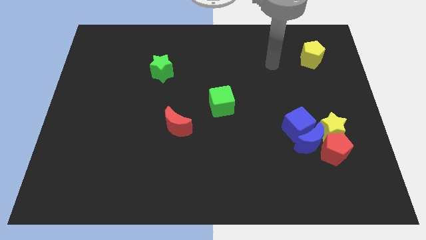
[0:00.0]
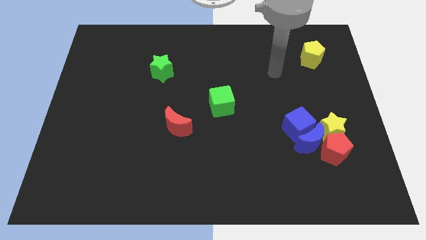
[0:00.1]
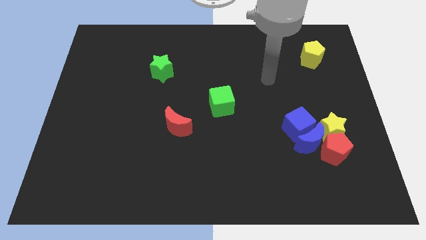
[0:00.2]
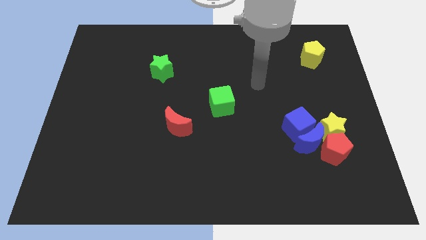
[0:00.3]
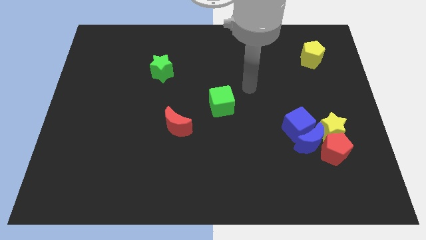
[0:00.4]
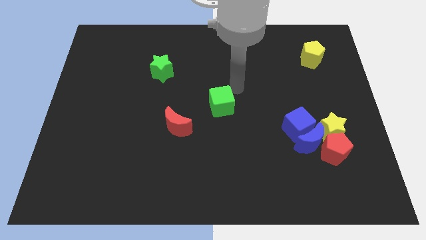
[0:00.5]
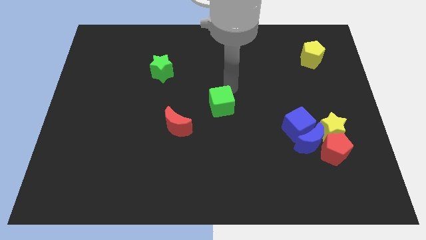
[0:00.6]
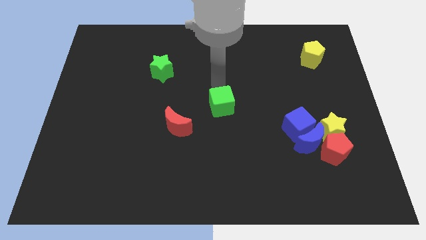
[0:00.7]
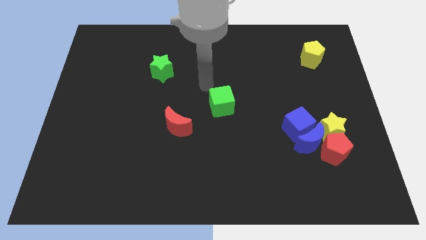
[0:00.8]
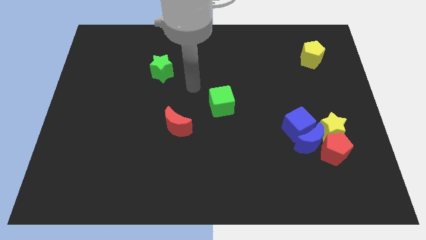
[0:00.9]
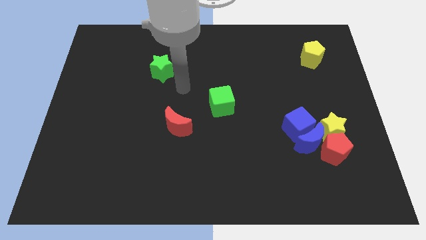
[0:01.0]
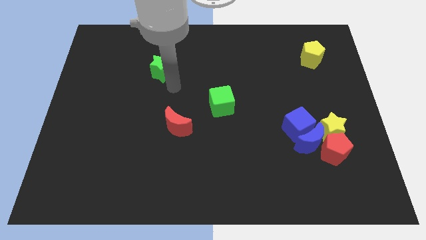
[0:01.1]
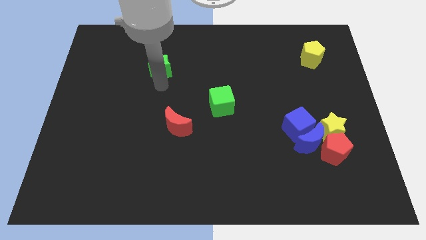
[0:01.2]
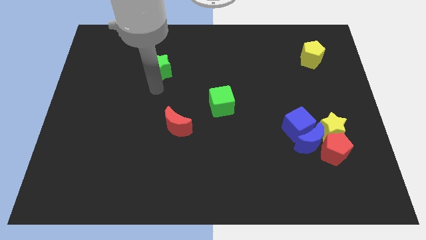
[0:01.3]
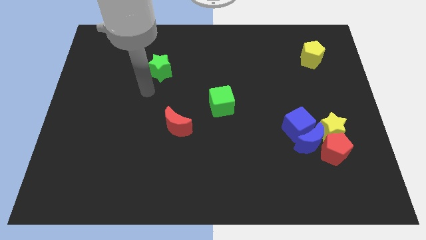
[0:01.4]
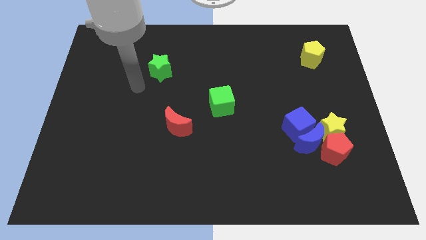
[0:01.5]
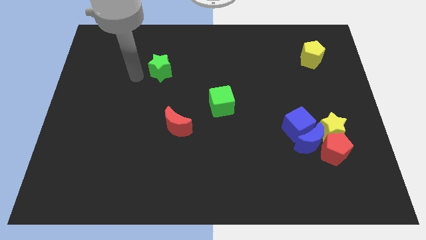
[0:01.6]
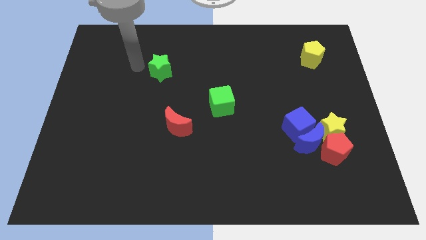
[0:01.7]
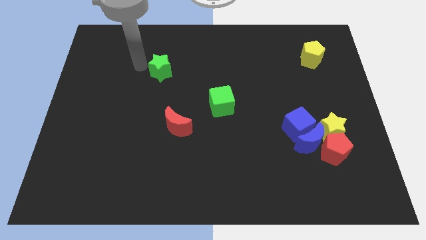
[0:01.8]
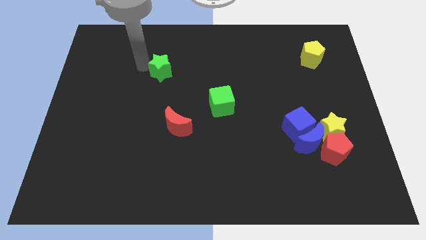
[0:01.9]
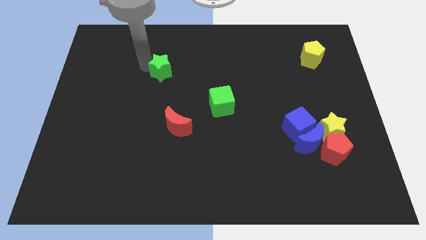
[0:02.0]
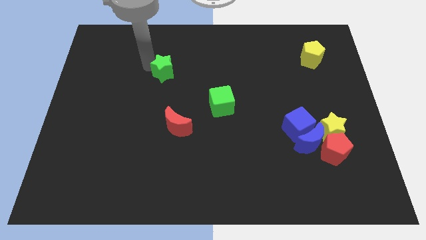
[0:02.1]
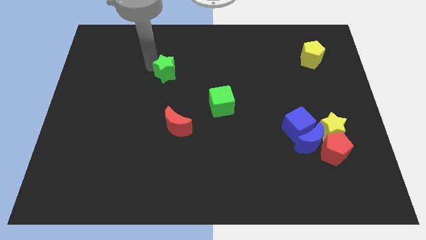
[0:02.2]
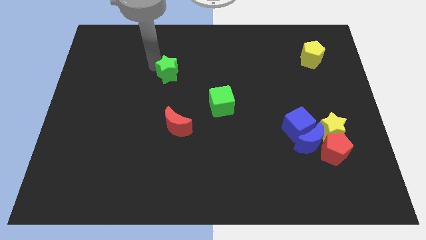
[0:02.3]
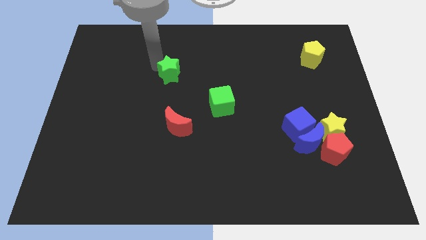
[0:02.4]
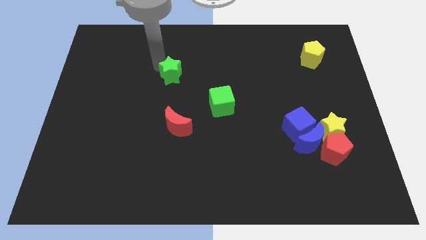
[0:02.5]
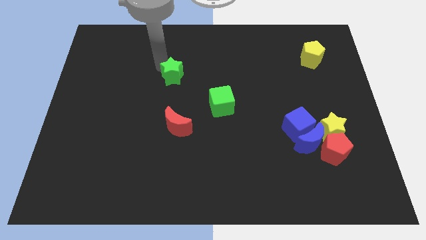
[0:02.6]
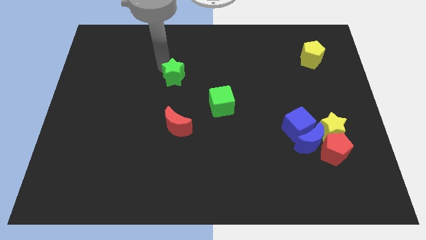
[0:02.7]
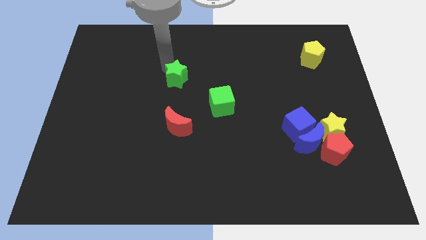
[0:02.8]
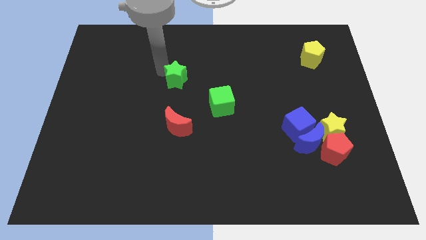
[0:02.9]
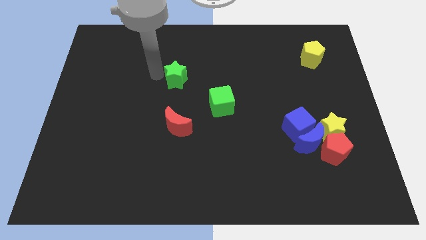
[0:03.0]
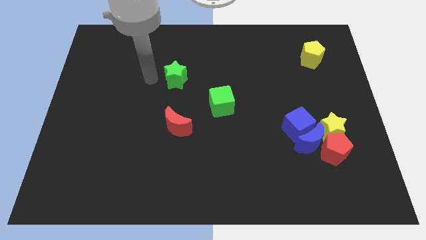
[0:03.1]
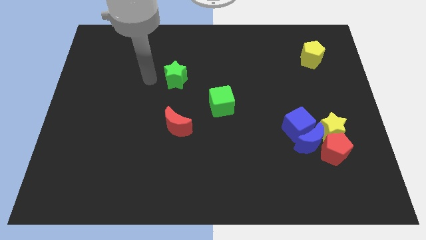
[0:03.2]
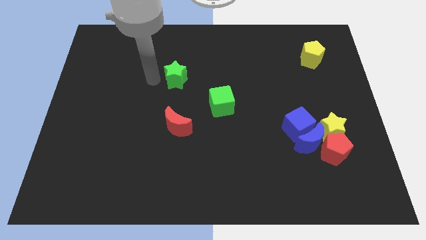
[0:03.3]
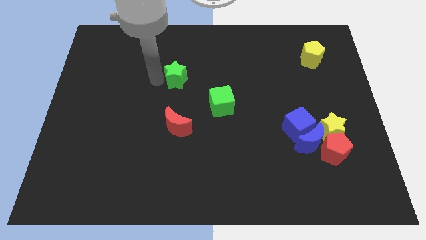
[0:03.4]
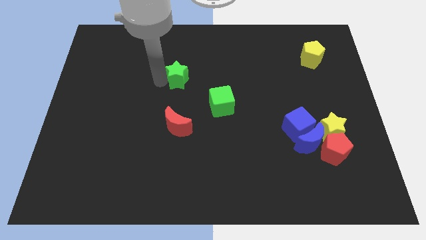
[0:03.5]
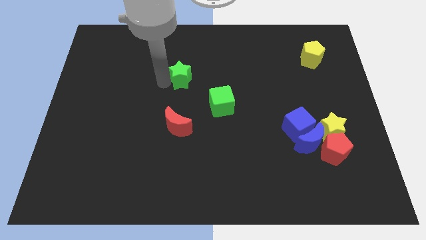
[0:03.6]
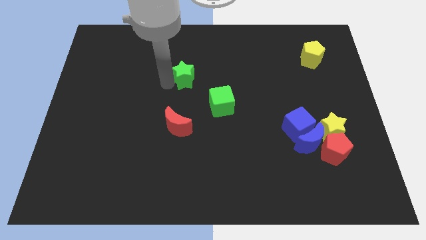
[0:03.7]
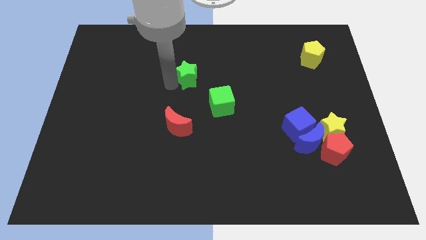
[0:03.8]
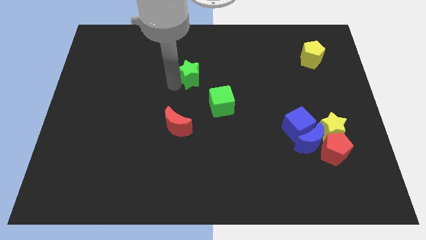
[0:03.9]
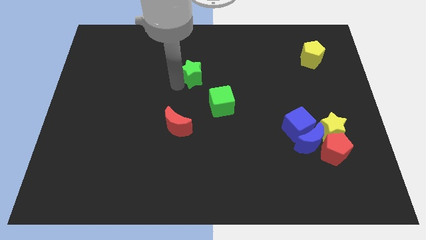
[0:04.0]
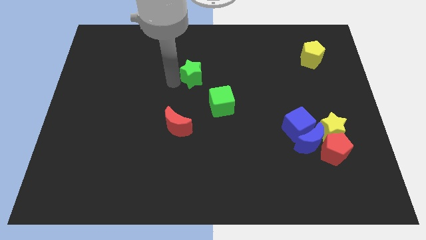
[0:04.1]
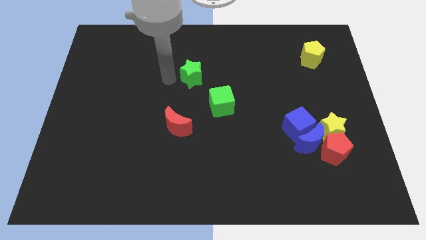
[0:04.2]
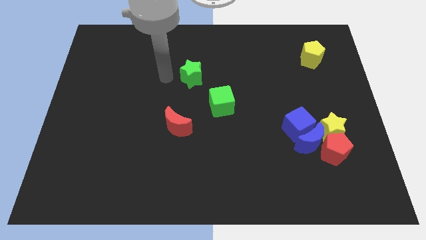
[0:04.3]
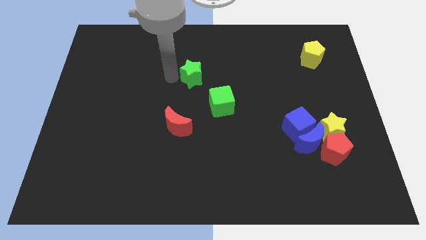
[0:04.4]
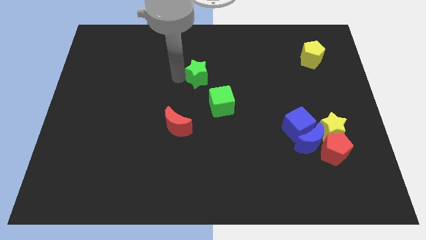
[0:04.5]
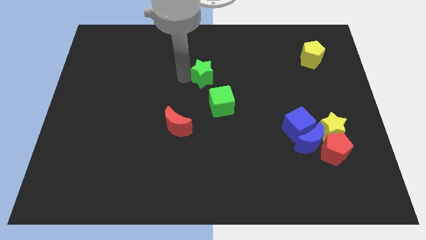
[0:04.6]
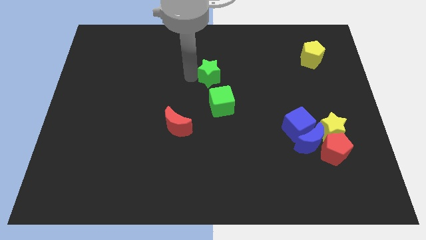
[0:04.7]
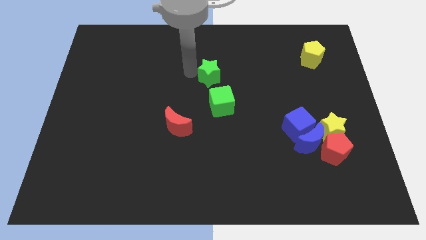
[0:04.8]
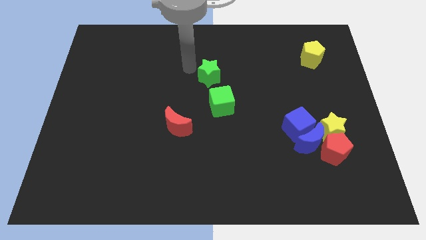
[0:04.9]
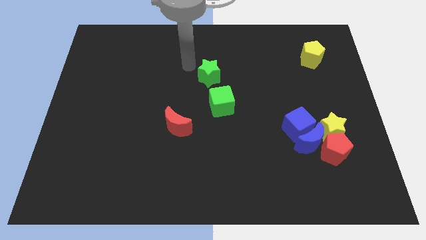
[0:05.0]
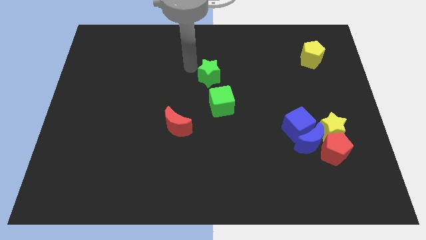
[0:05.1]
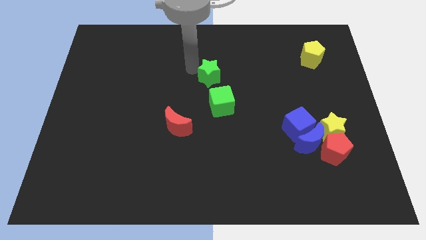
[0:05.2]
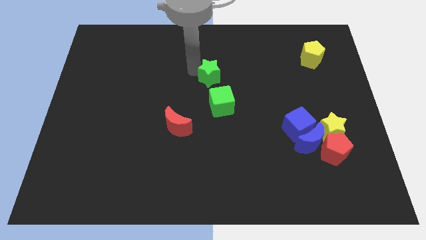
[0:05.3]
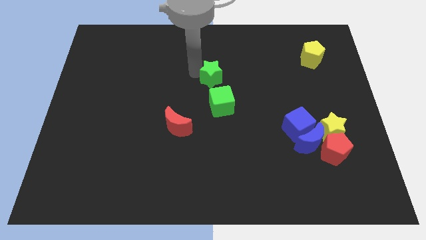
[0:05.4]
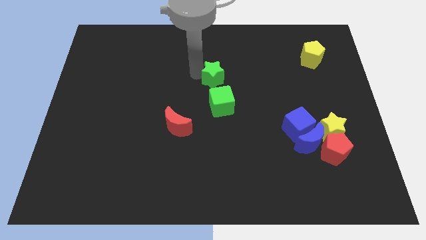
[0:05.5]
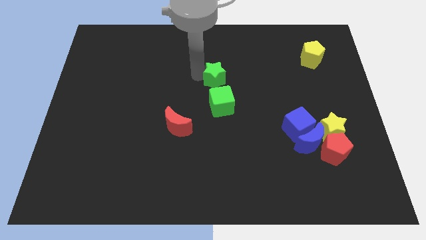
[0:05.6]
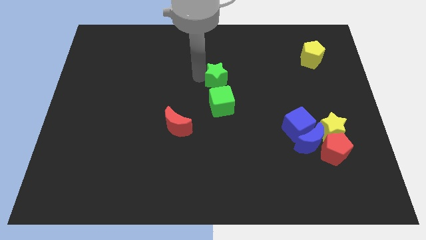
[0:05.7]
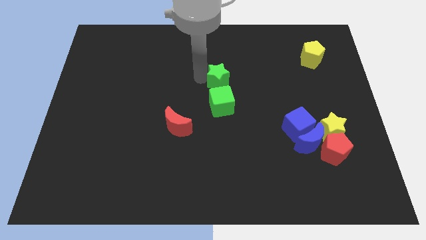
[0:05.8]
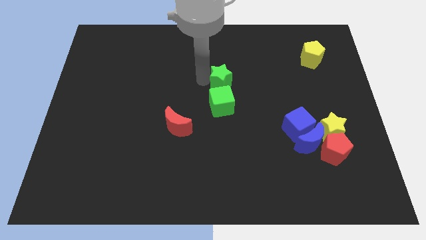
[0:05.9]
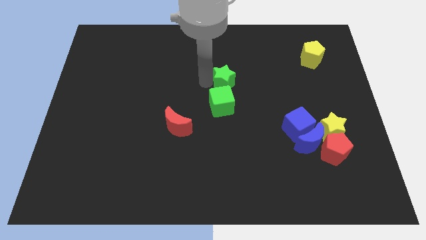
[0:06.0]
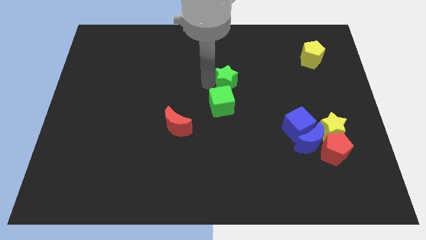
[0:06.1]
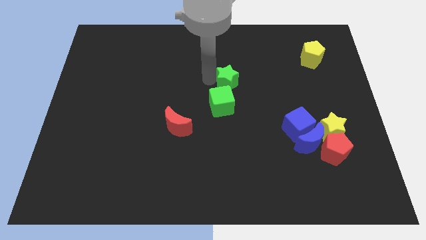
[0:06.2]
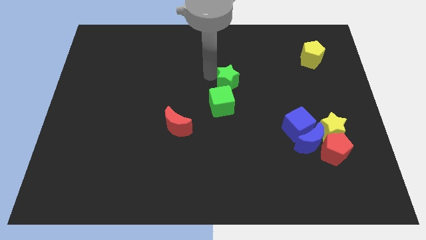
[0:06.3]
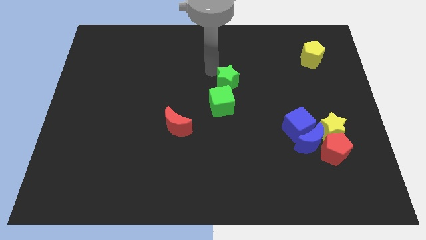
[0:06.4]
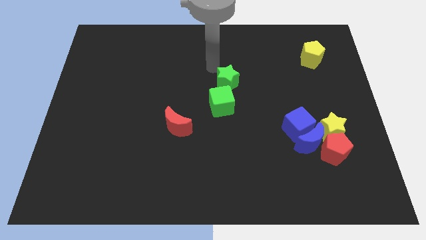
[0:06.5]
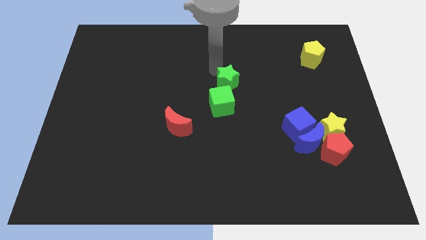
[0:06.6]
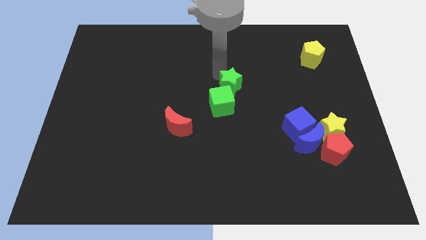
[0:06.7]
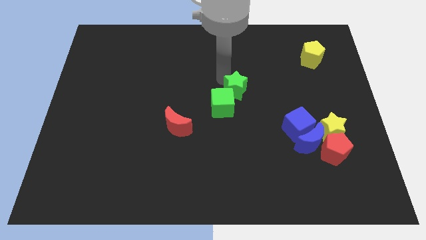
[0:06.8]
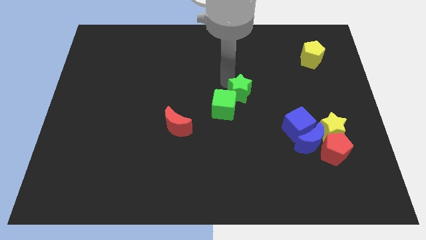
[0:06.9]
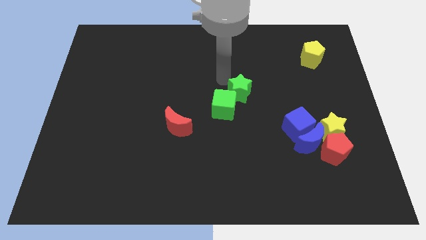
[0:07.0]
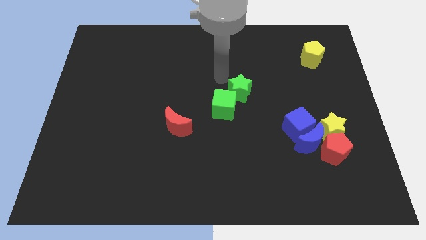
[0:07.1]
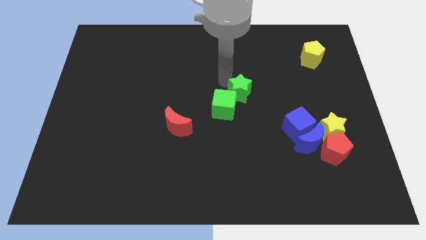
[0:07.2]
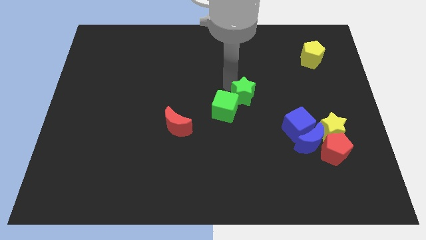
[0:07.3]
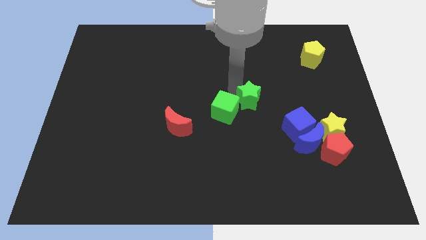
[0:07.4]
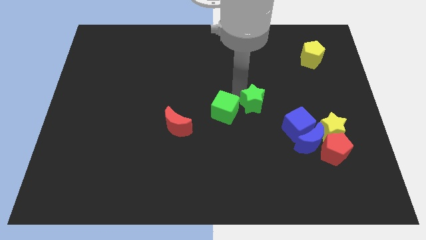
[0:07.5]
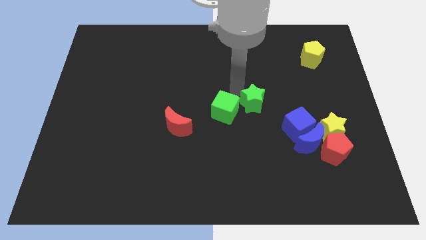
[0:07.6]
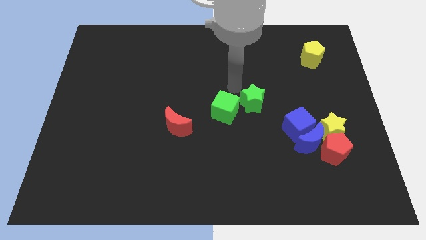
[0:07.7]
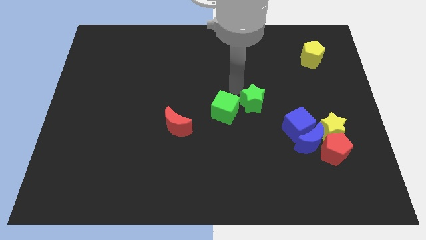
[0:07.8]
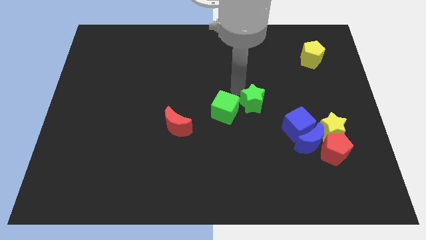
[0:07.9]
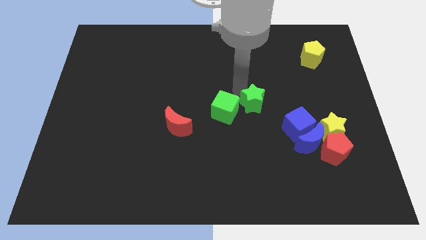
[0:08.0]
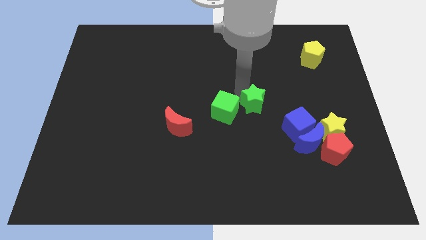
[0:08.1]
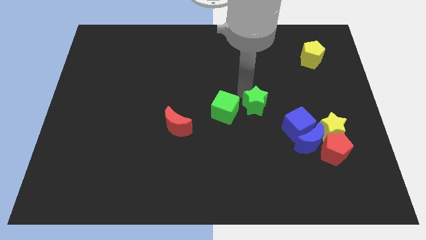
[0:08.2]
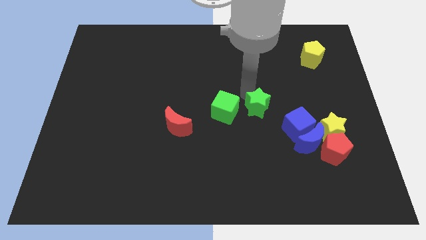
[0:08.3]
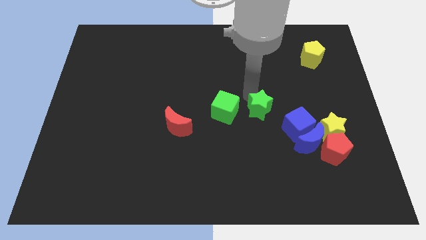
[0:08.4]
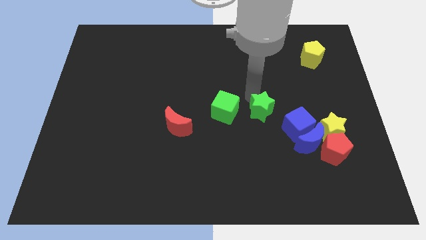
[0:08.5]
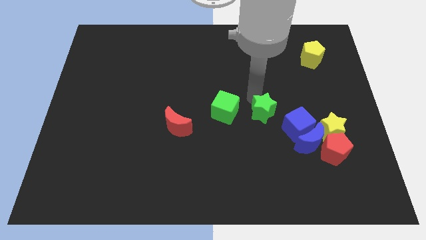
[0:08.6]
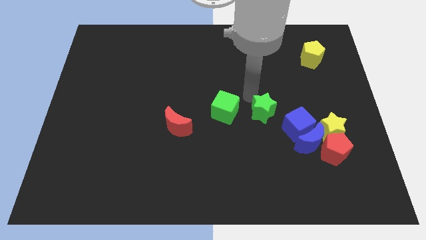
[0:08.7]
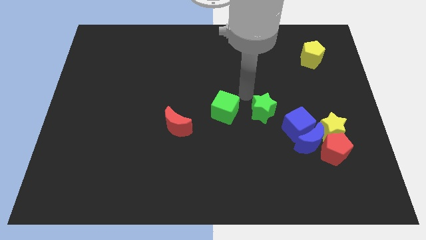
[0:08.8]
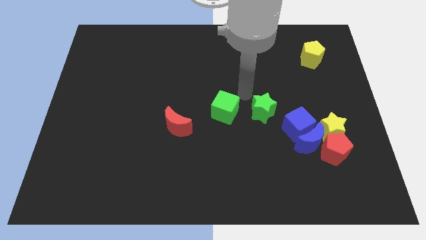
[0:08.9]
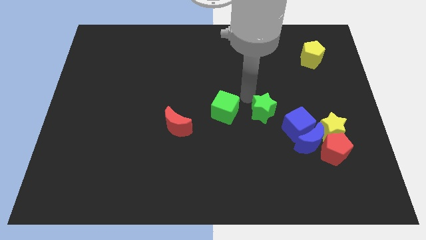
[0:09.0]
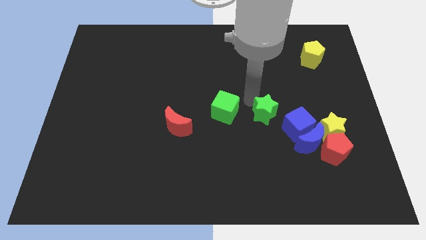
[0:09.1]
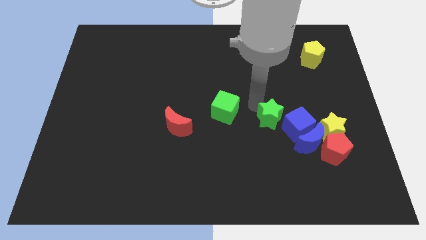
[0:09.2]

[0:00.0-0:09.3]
push the green star just left of the yellow star
